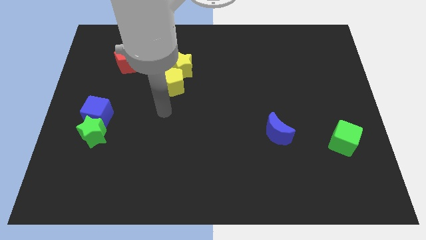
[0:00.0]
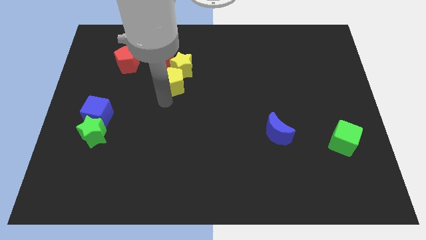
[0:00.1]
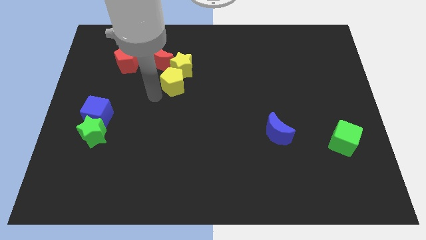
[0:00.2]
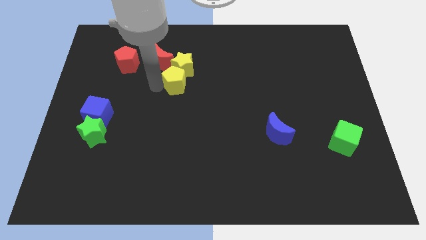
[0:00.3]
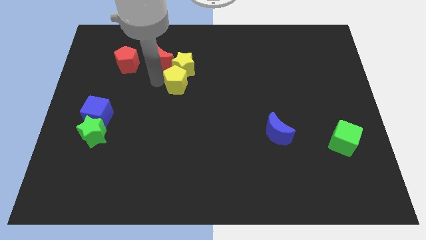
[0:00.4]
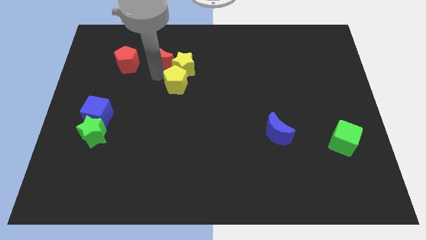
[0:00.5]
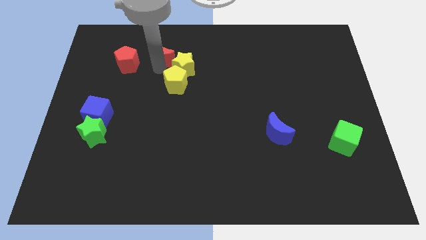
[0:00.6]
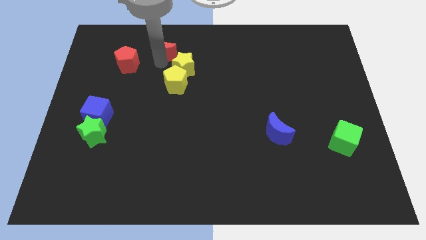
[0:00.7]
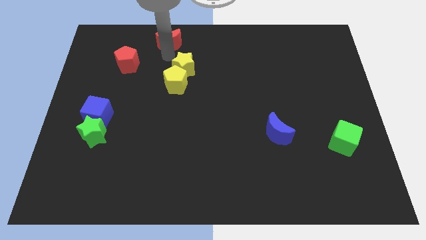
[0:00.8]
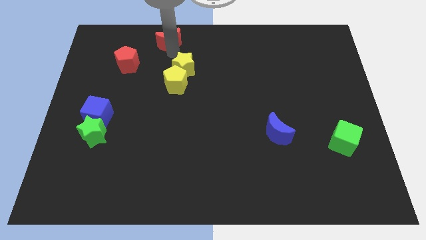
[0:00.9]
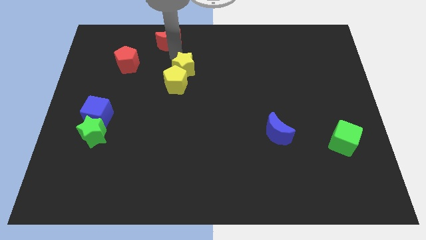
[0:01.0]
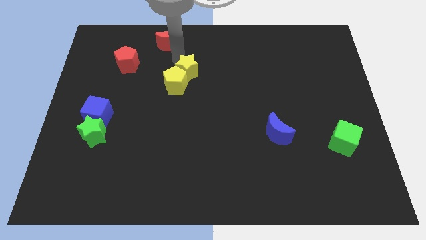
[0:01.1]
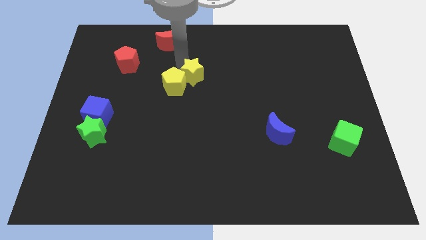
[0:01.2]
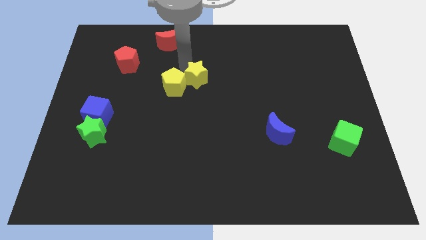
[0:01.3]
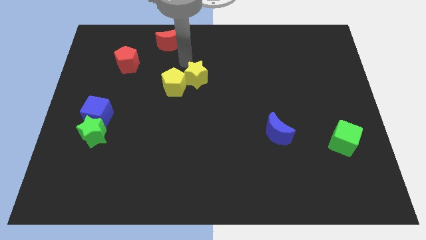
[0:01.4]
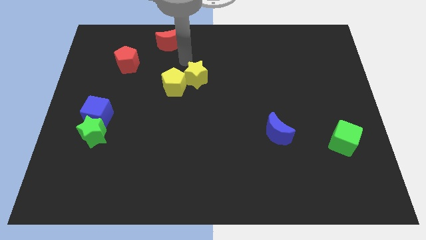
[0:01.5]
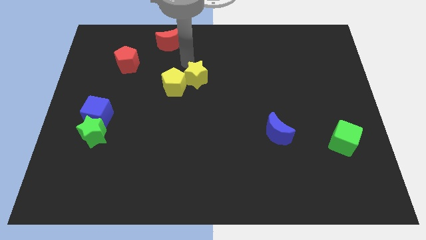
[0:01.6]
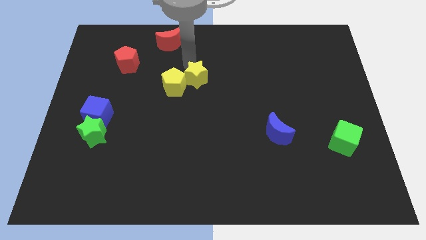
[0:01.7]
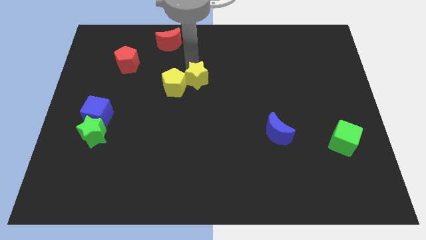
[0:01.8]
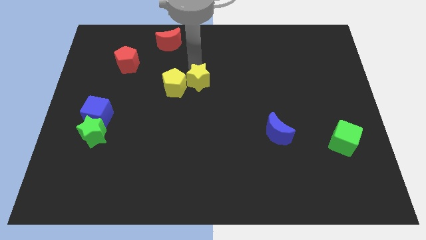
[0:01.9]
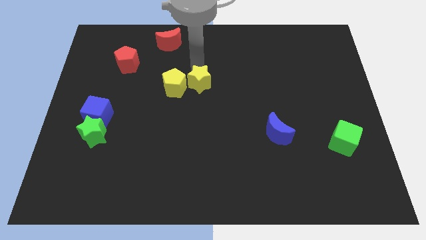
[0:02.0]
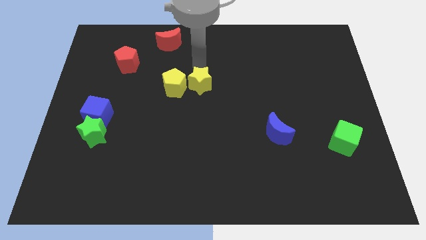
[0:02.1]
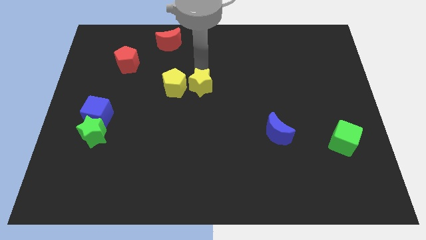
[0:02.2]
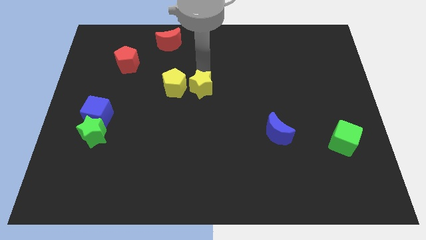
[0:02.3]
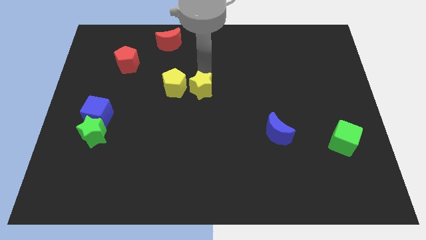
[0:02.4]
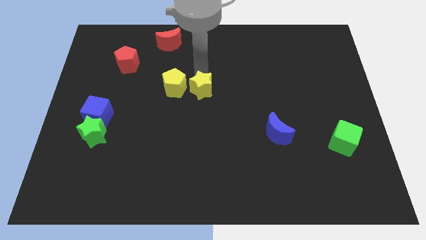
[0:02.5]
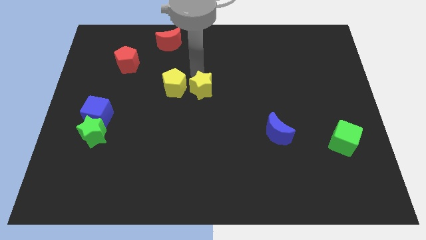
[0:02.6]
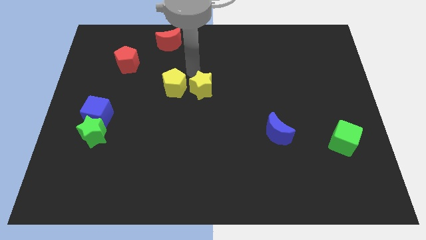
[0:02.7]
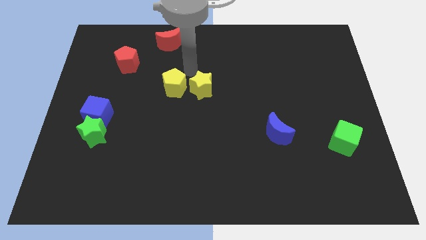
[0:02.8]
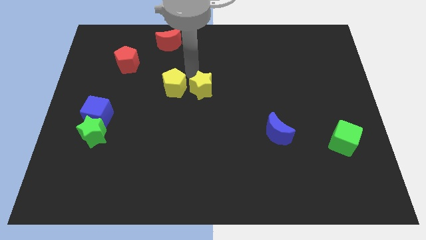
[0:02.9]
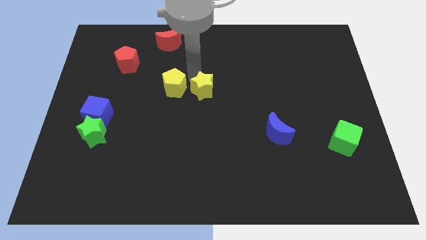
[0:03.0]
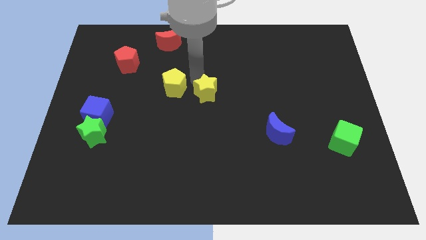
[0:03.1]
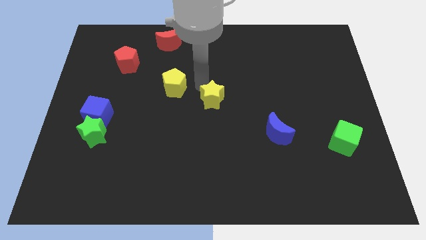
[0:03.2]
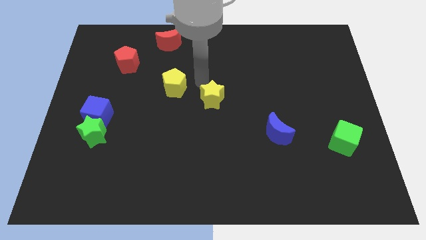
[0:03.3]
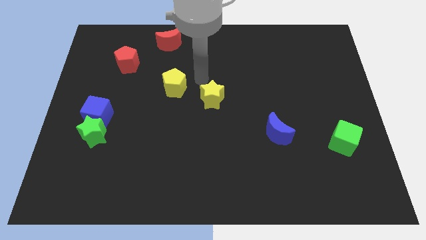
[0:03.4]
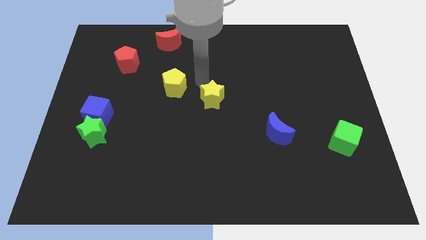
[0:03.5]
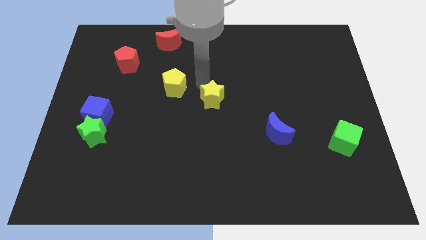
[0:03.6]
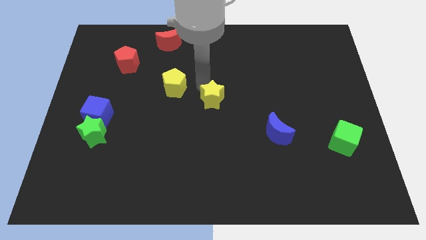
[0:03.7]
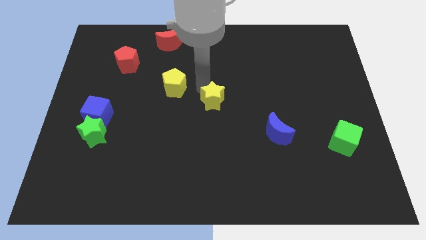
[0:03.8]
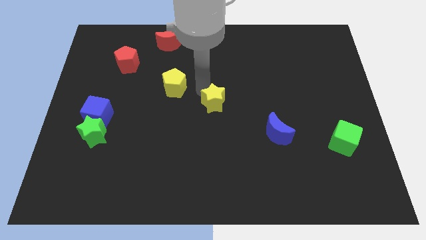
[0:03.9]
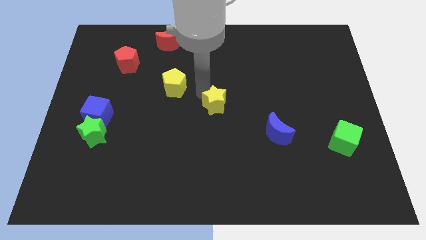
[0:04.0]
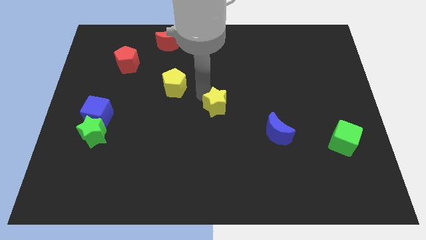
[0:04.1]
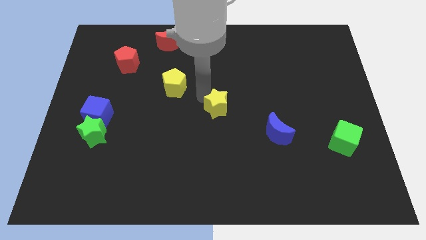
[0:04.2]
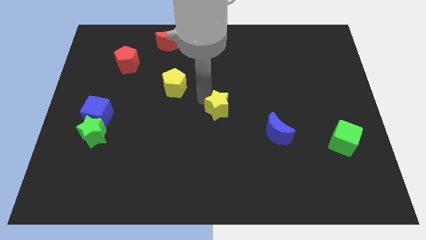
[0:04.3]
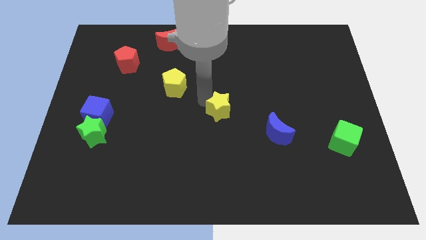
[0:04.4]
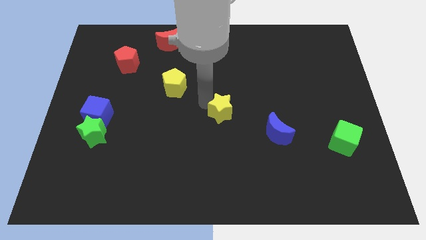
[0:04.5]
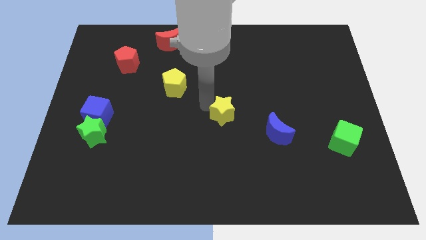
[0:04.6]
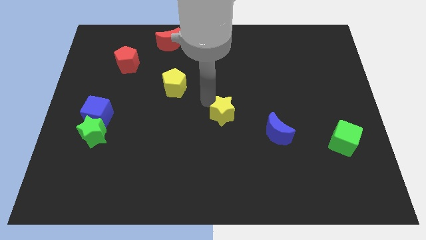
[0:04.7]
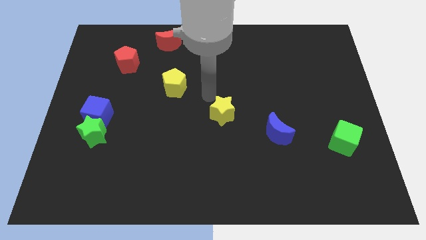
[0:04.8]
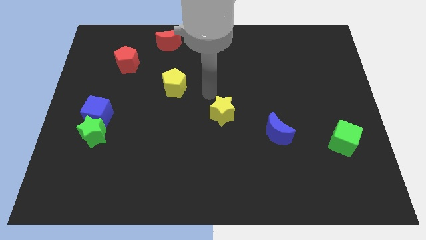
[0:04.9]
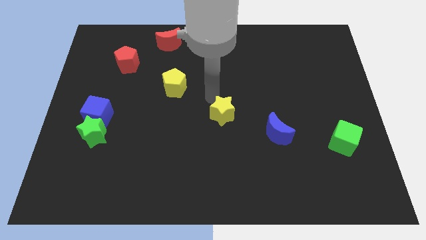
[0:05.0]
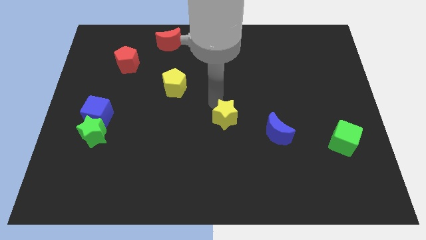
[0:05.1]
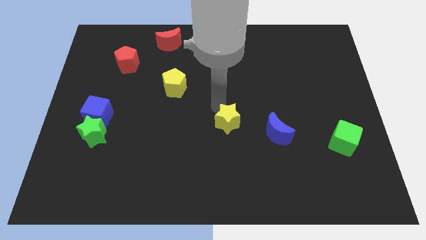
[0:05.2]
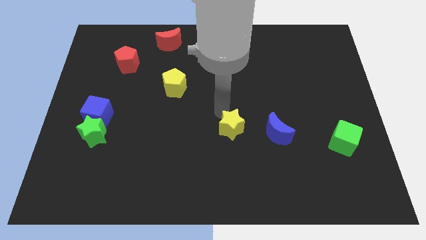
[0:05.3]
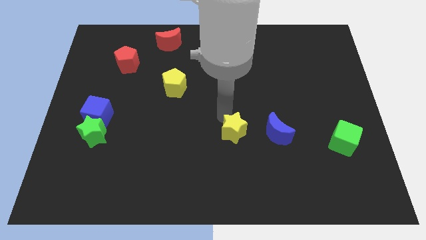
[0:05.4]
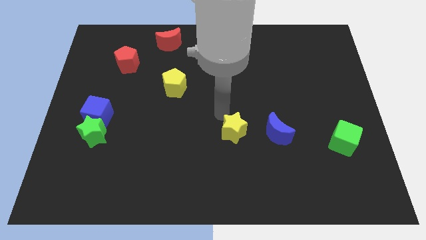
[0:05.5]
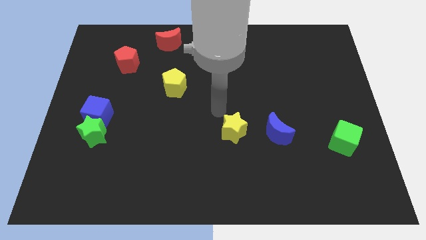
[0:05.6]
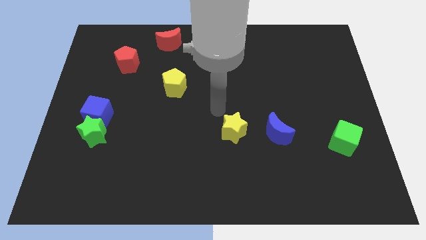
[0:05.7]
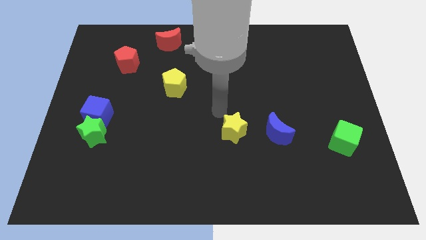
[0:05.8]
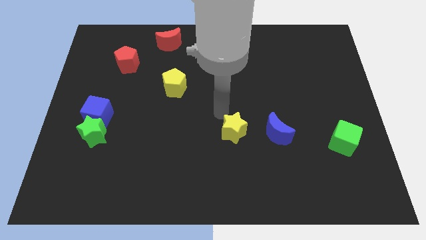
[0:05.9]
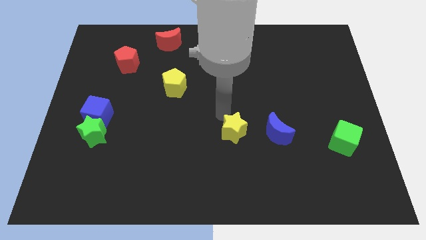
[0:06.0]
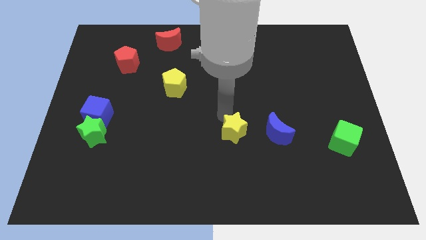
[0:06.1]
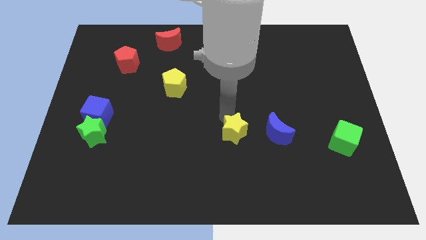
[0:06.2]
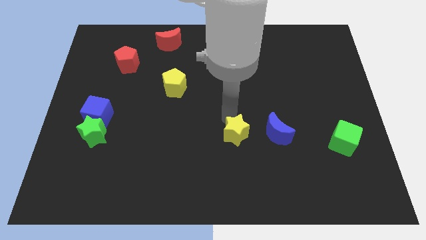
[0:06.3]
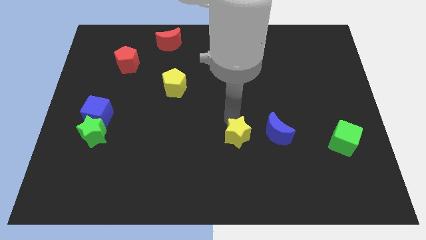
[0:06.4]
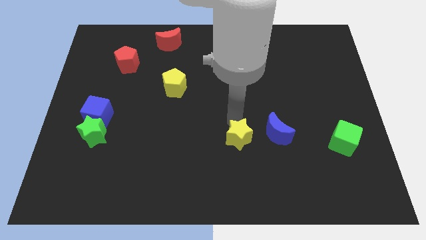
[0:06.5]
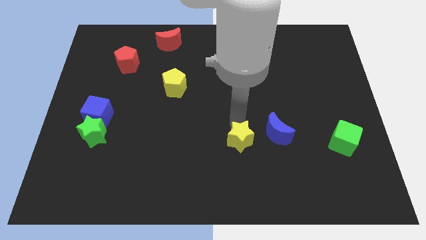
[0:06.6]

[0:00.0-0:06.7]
slide the yellow star to the bottom left of the blue moon
